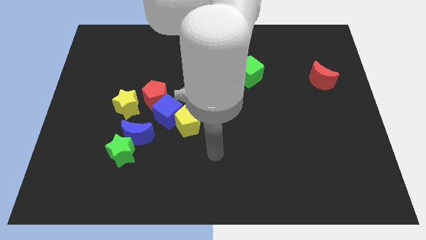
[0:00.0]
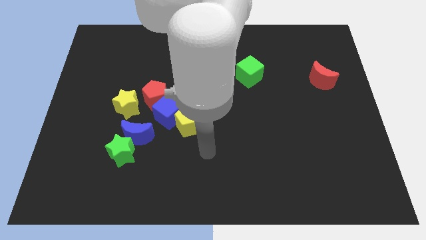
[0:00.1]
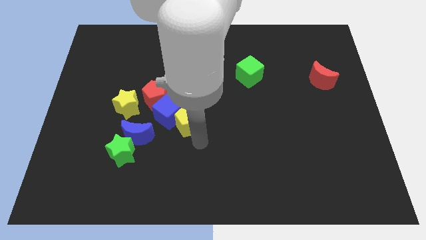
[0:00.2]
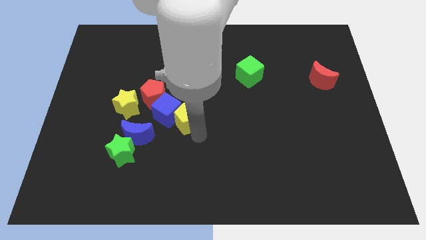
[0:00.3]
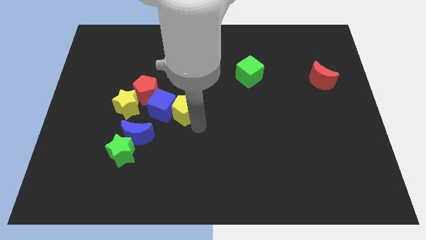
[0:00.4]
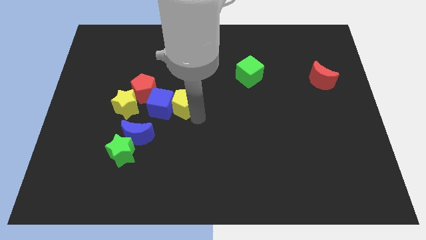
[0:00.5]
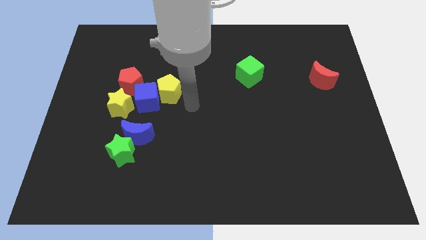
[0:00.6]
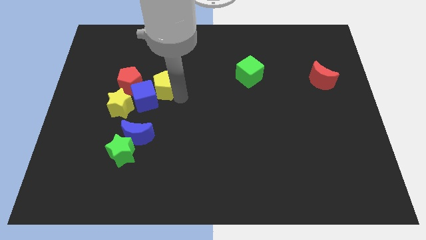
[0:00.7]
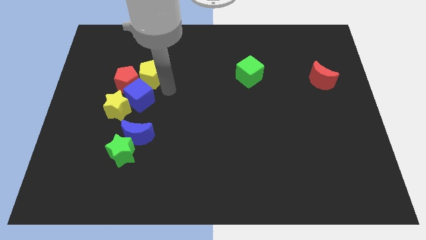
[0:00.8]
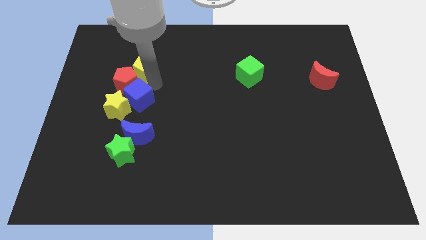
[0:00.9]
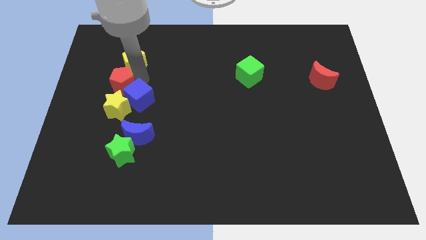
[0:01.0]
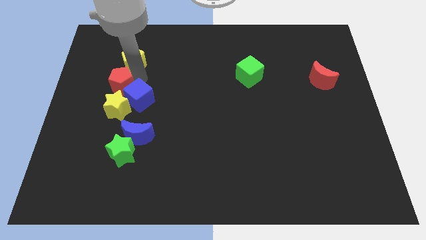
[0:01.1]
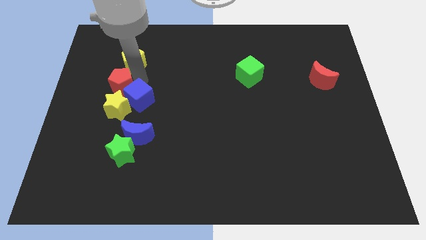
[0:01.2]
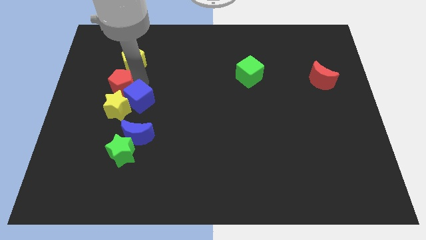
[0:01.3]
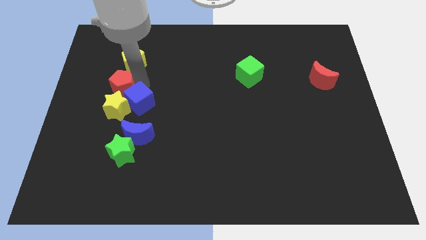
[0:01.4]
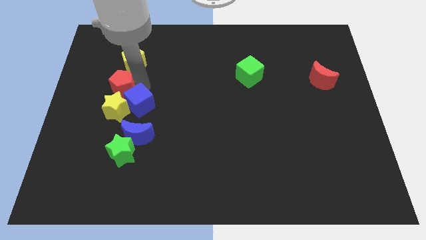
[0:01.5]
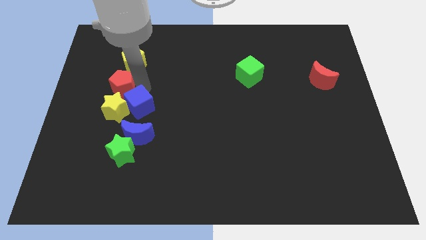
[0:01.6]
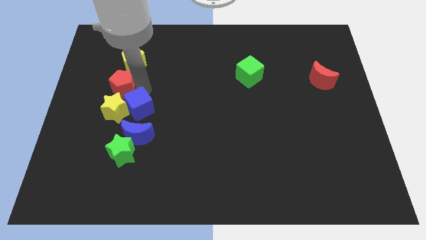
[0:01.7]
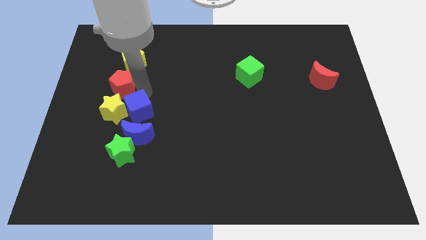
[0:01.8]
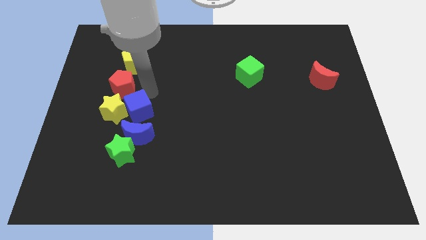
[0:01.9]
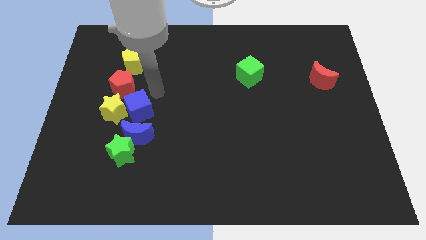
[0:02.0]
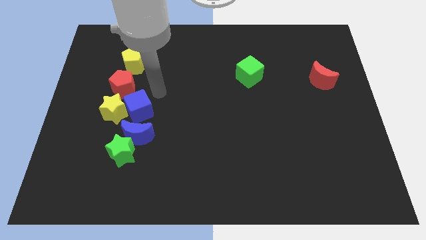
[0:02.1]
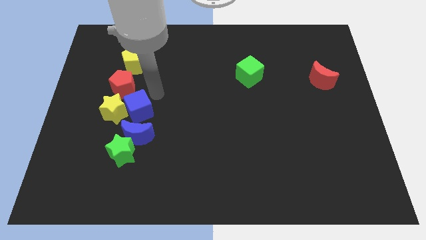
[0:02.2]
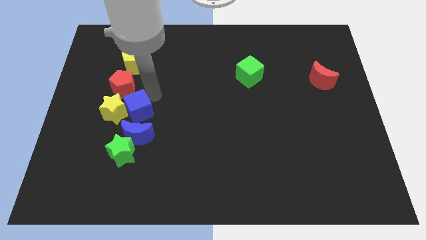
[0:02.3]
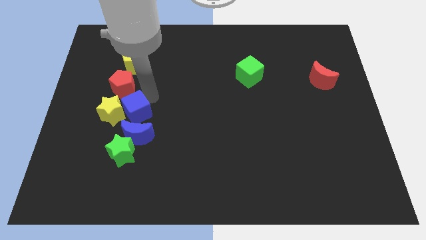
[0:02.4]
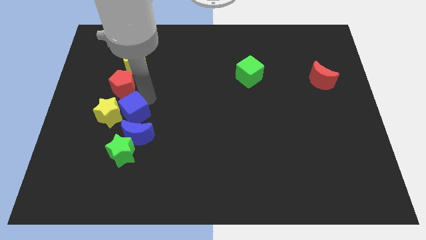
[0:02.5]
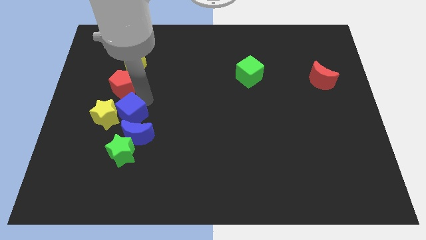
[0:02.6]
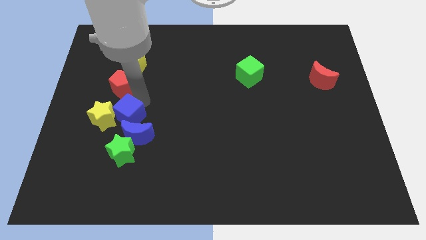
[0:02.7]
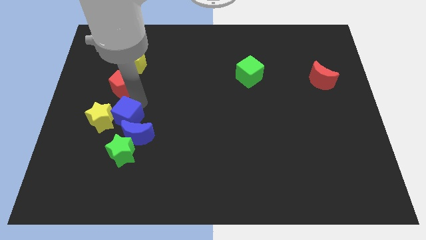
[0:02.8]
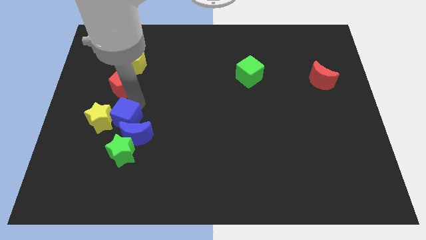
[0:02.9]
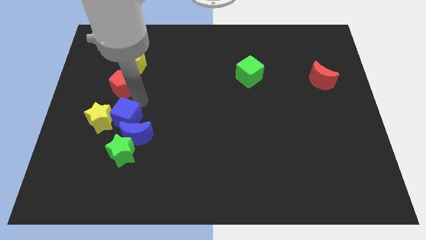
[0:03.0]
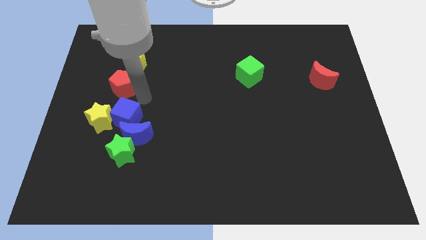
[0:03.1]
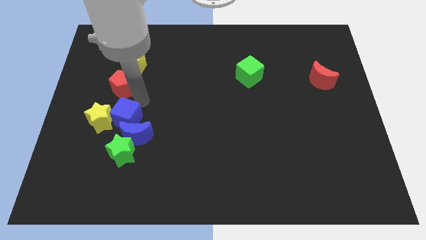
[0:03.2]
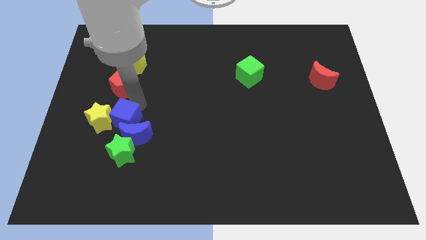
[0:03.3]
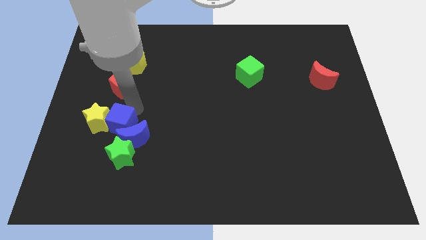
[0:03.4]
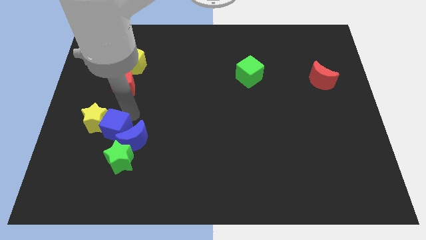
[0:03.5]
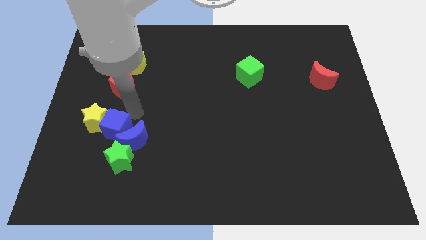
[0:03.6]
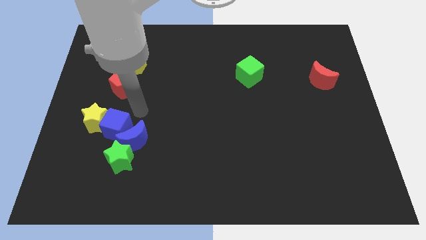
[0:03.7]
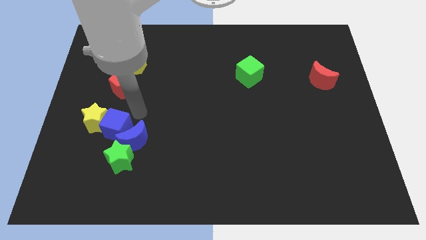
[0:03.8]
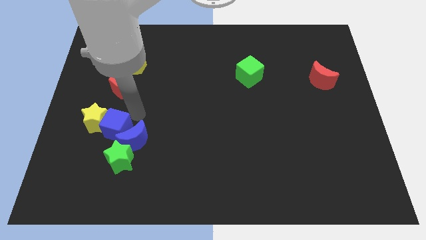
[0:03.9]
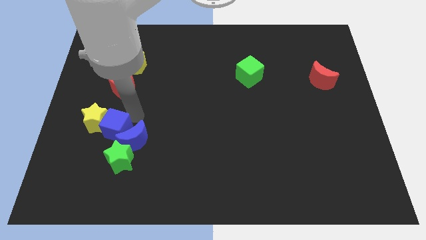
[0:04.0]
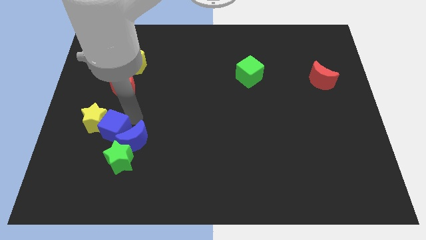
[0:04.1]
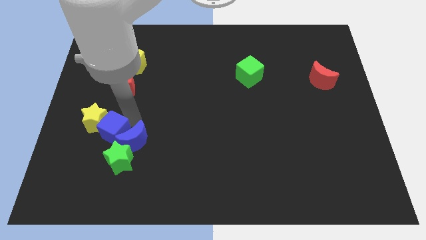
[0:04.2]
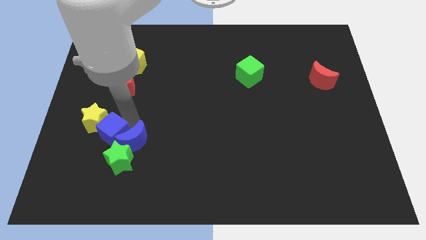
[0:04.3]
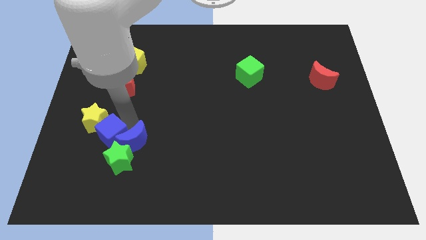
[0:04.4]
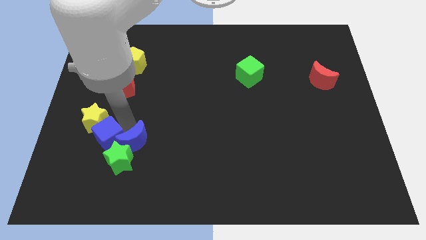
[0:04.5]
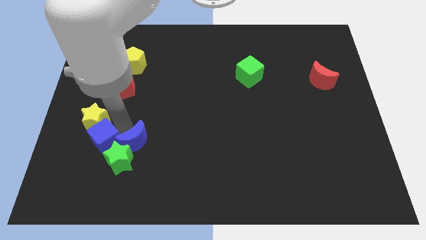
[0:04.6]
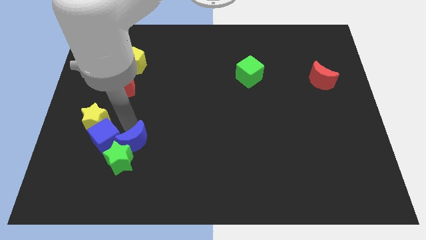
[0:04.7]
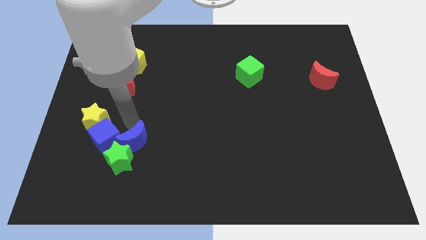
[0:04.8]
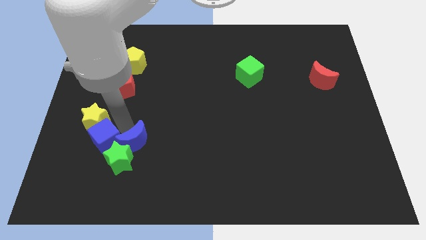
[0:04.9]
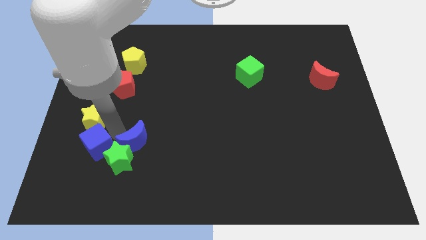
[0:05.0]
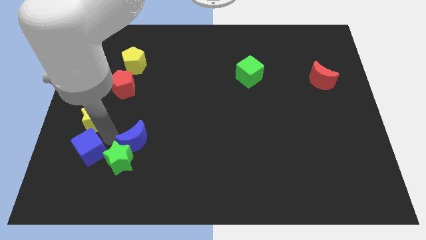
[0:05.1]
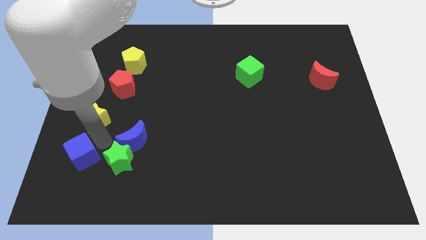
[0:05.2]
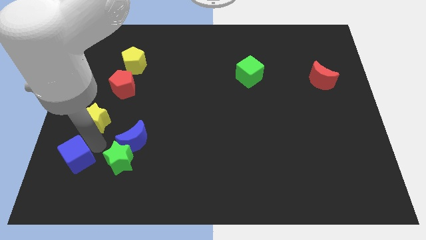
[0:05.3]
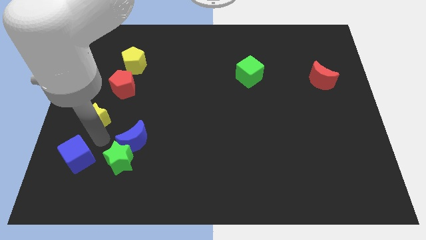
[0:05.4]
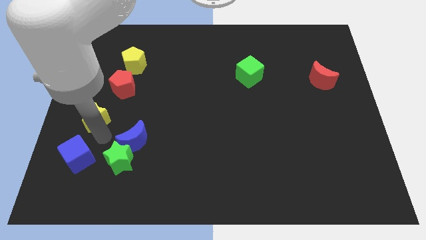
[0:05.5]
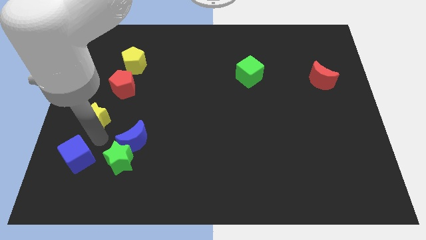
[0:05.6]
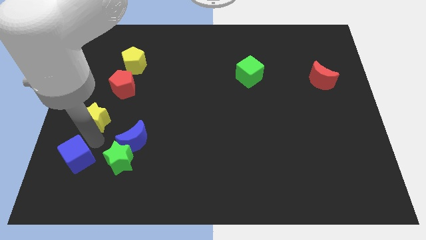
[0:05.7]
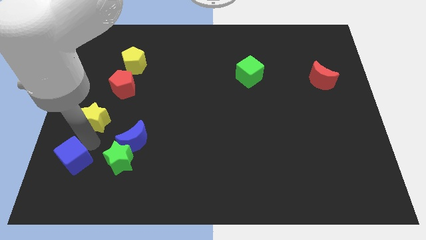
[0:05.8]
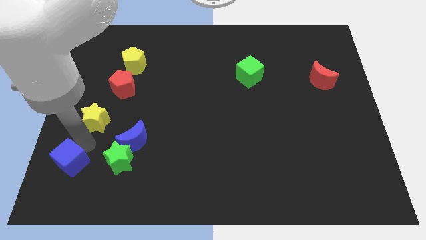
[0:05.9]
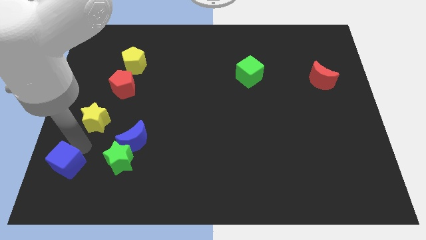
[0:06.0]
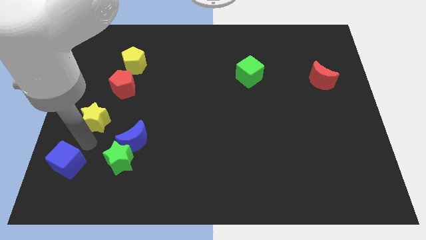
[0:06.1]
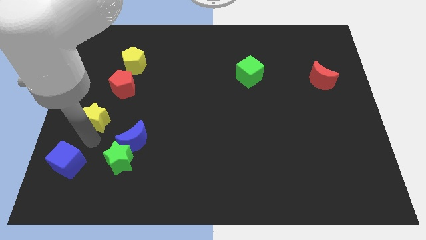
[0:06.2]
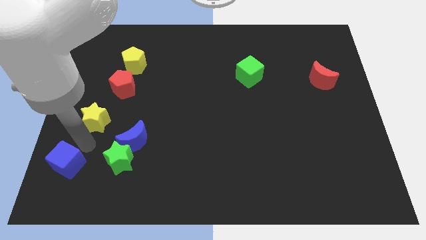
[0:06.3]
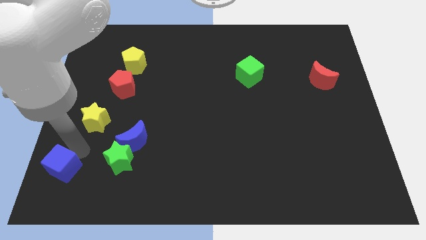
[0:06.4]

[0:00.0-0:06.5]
slide the blue cube to the bottom left of the board

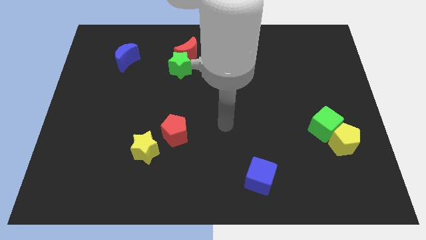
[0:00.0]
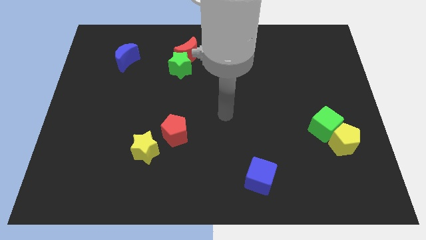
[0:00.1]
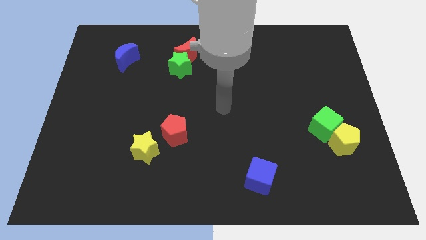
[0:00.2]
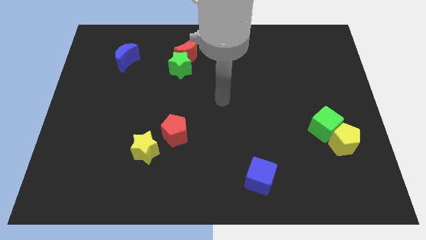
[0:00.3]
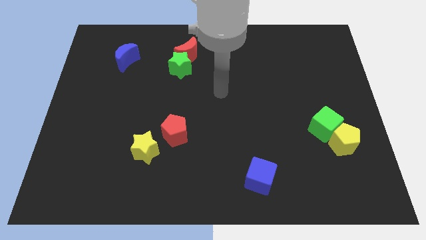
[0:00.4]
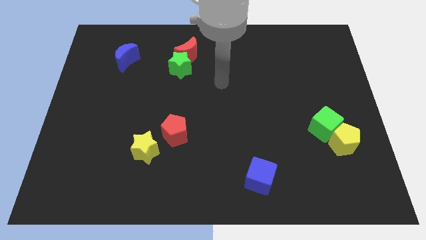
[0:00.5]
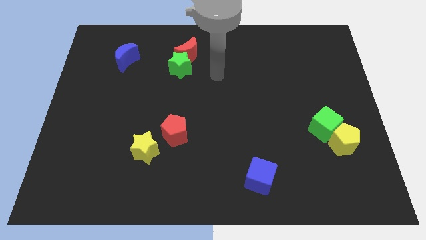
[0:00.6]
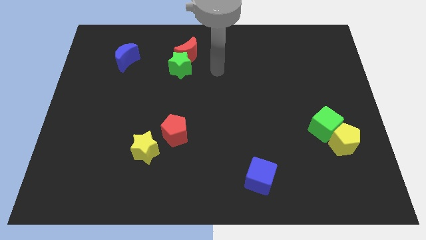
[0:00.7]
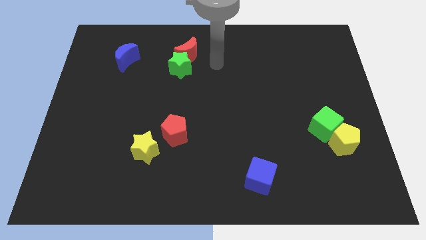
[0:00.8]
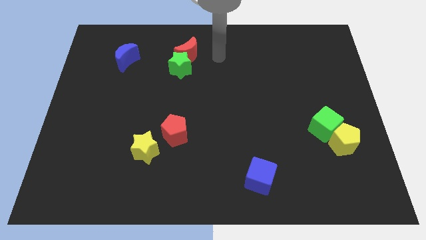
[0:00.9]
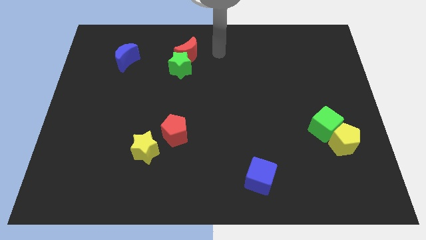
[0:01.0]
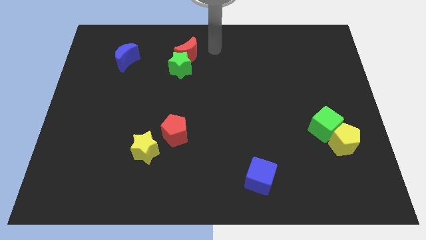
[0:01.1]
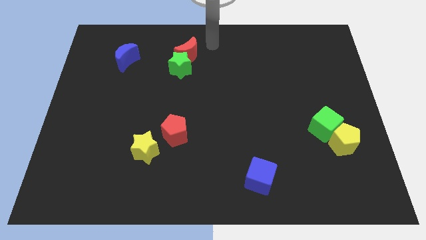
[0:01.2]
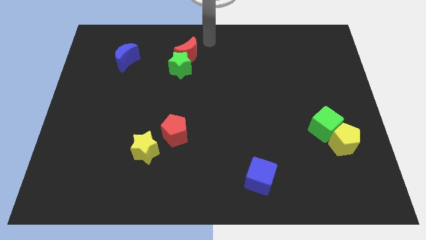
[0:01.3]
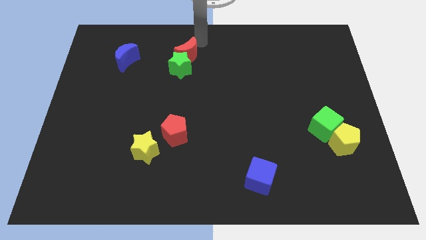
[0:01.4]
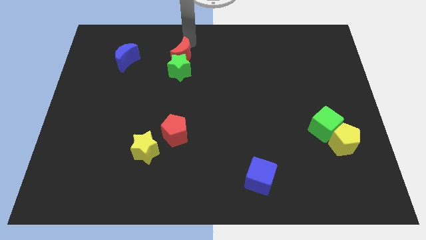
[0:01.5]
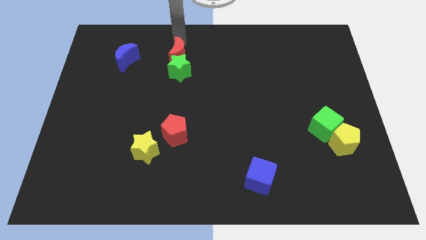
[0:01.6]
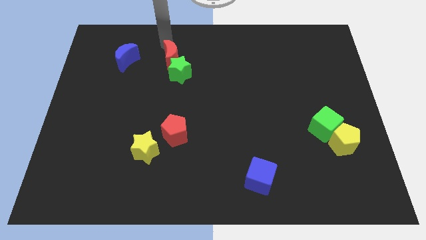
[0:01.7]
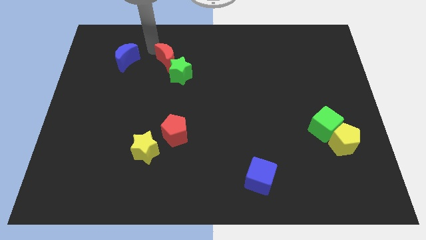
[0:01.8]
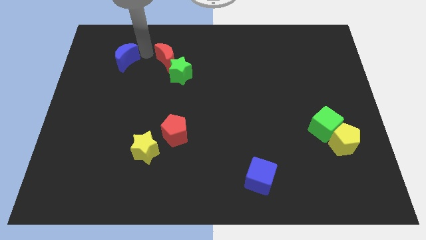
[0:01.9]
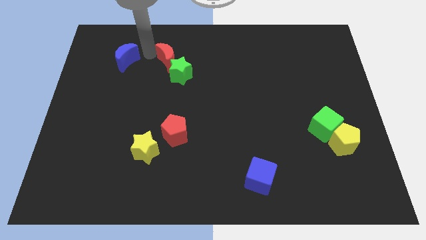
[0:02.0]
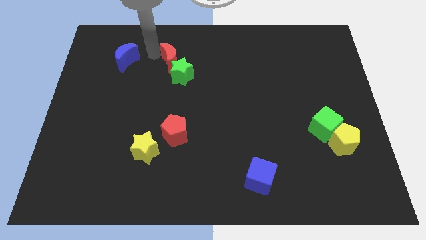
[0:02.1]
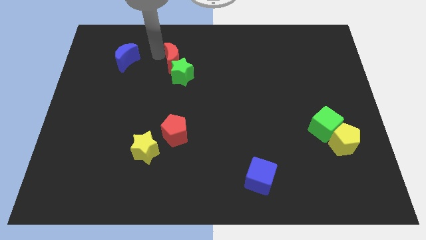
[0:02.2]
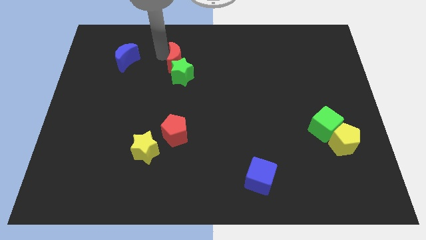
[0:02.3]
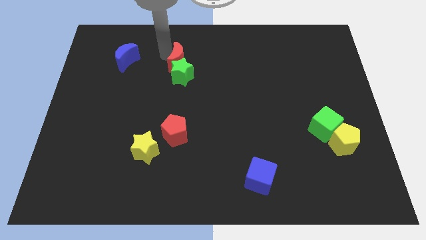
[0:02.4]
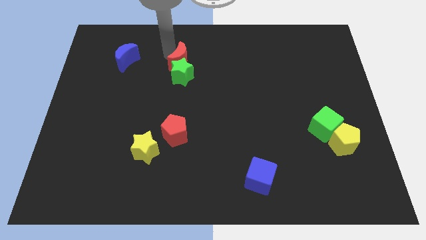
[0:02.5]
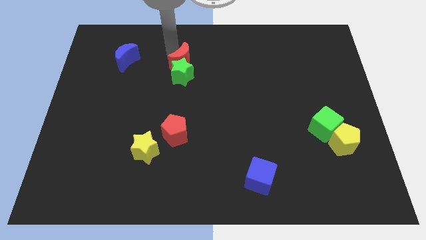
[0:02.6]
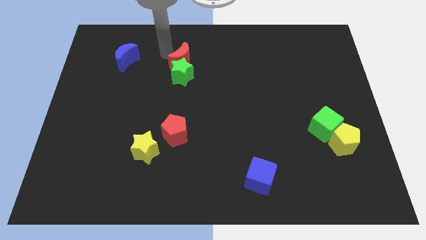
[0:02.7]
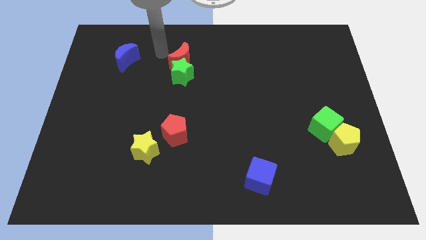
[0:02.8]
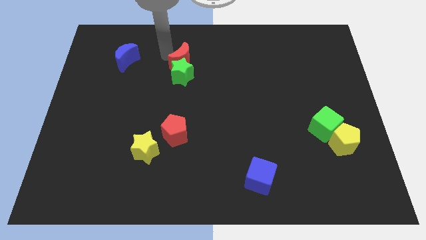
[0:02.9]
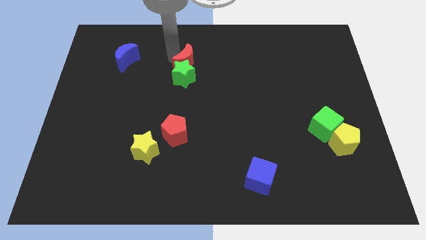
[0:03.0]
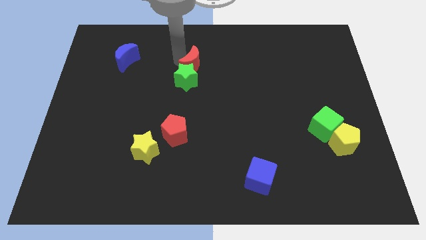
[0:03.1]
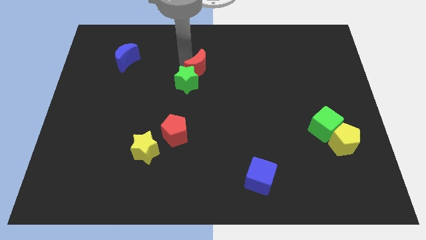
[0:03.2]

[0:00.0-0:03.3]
move the red moon to the middle of the board
